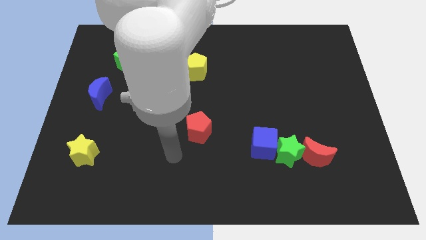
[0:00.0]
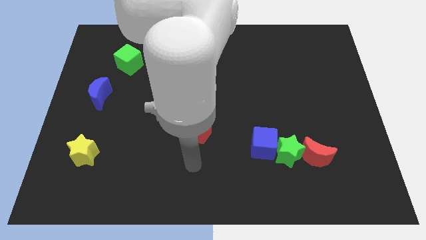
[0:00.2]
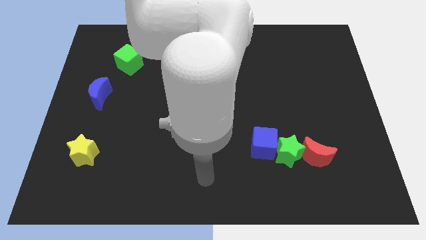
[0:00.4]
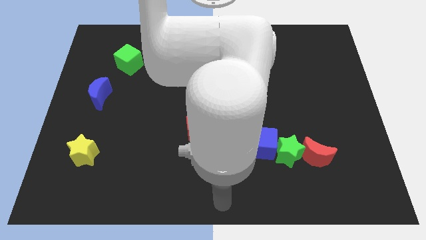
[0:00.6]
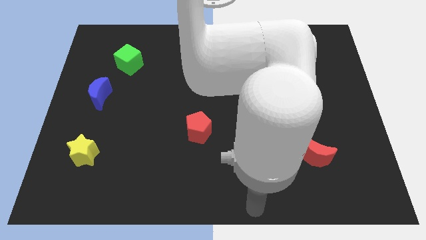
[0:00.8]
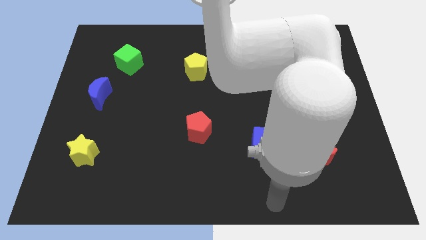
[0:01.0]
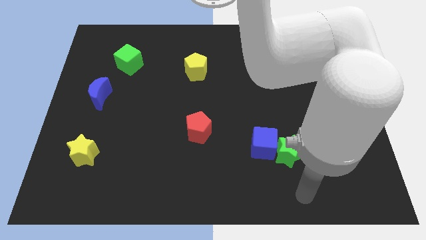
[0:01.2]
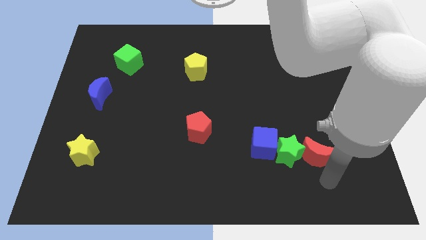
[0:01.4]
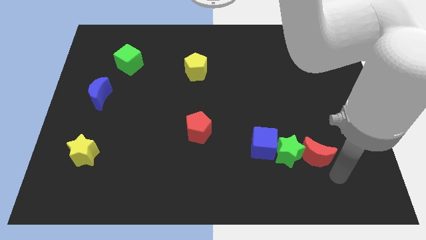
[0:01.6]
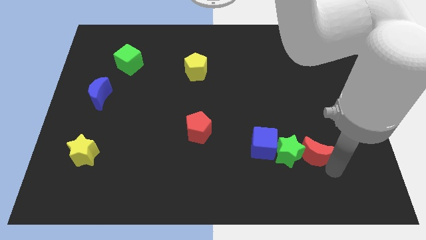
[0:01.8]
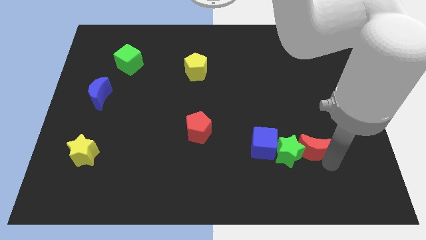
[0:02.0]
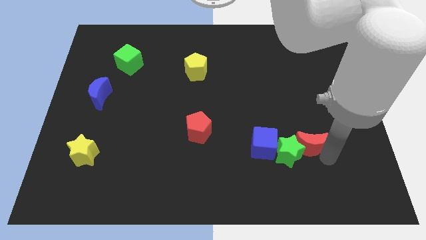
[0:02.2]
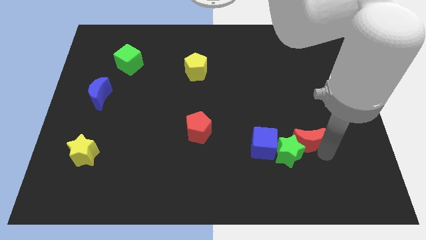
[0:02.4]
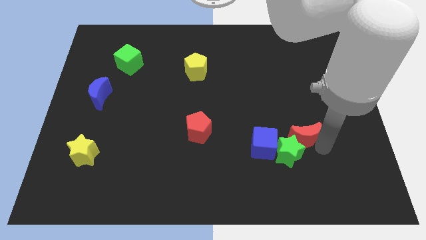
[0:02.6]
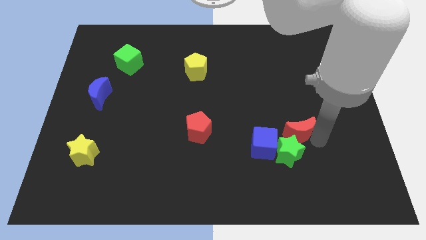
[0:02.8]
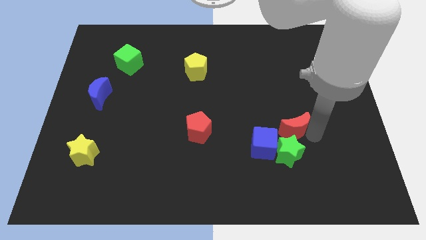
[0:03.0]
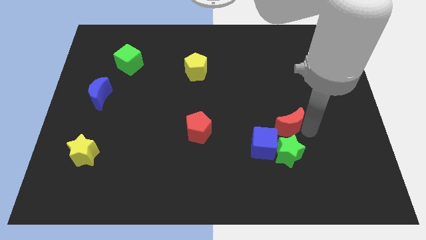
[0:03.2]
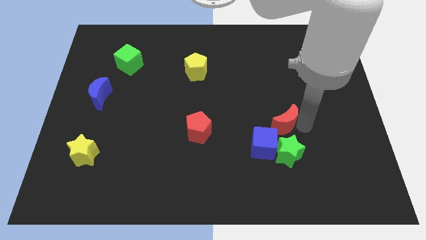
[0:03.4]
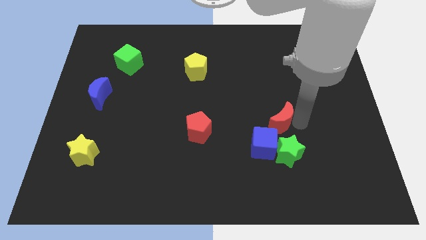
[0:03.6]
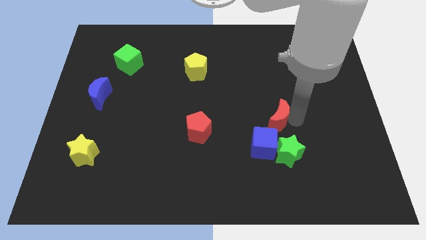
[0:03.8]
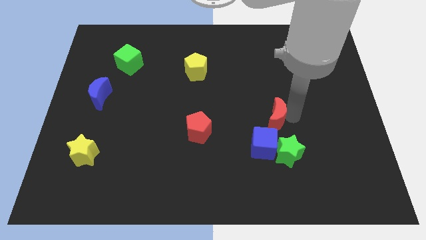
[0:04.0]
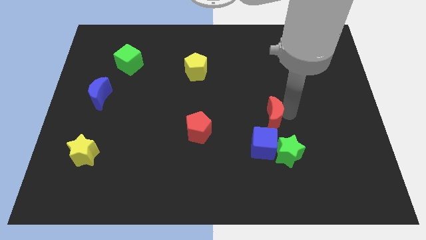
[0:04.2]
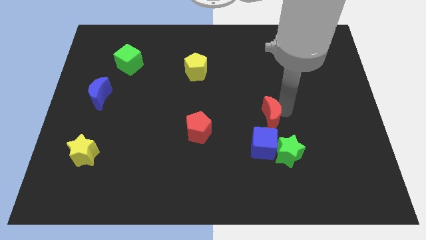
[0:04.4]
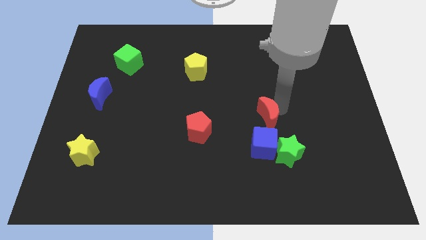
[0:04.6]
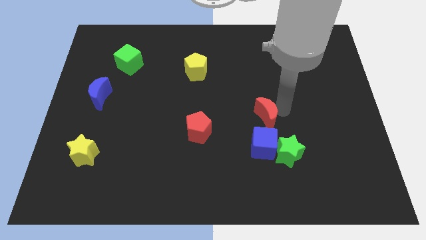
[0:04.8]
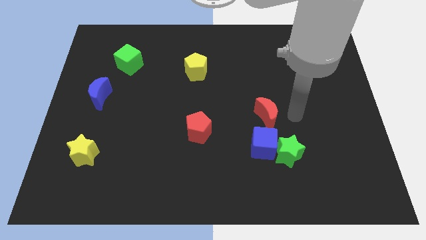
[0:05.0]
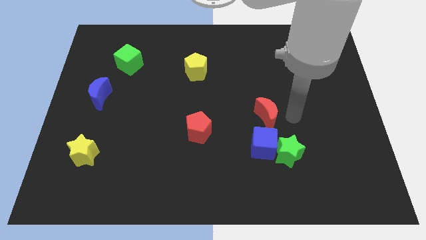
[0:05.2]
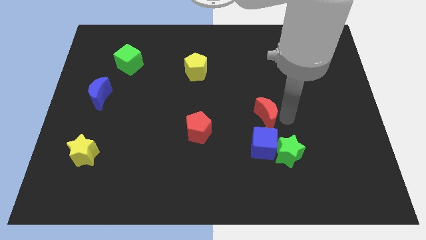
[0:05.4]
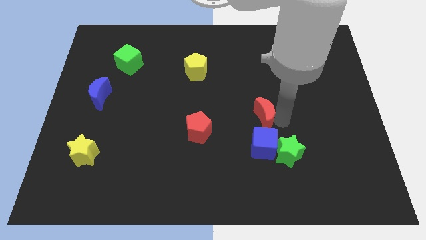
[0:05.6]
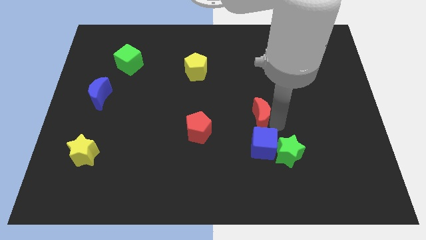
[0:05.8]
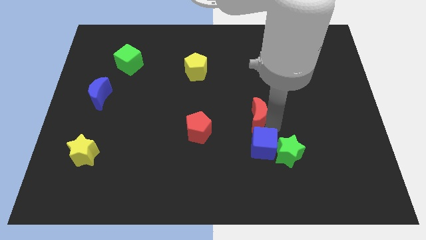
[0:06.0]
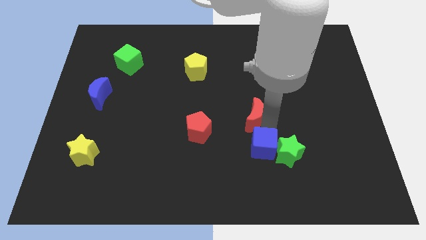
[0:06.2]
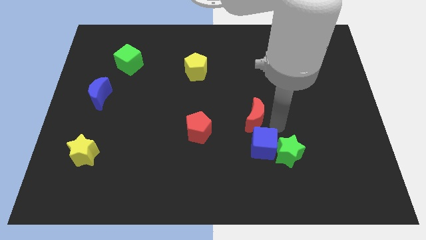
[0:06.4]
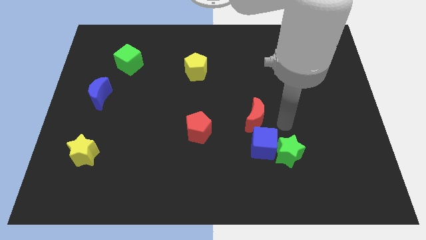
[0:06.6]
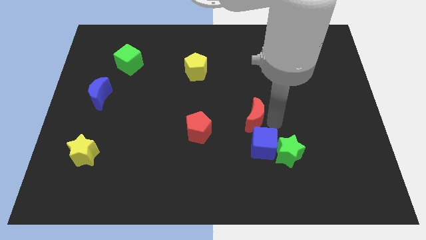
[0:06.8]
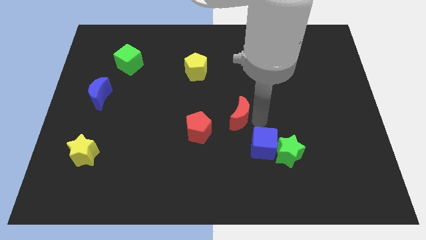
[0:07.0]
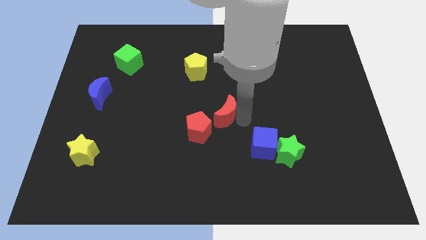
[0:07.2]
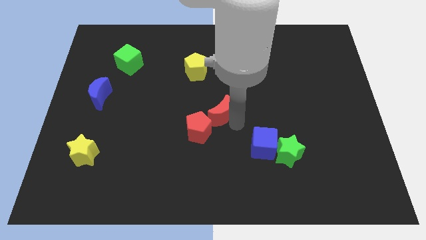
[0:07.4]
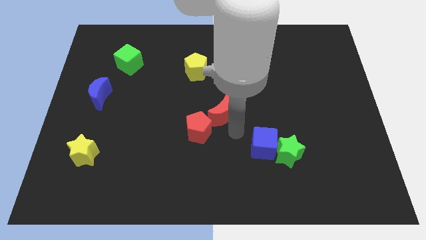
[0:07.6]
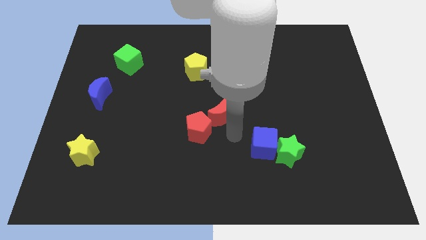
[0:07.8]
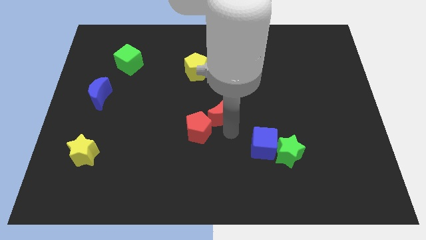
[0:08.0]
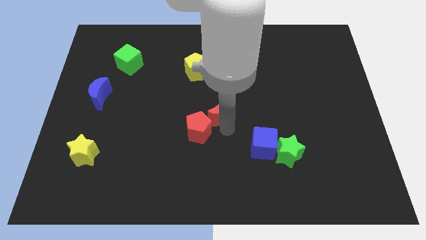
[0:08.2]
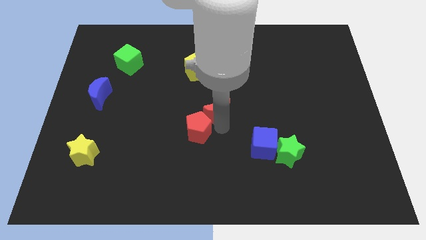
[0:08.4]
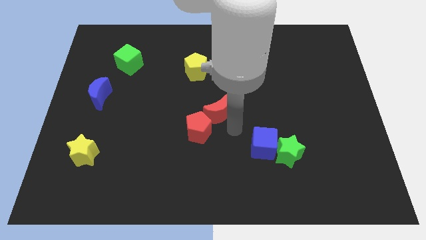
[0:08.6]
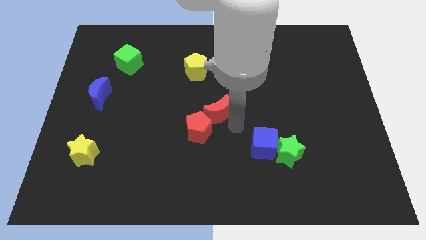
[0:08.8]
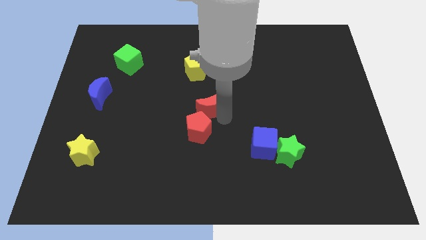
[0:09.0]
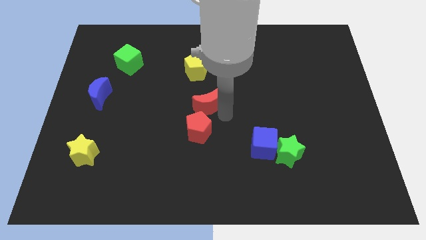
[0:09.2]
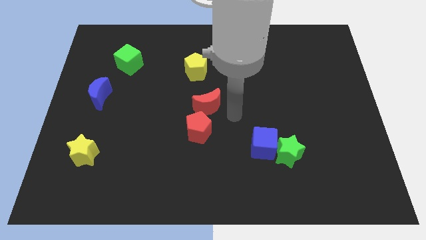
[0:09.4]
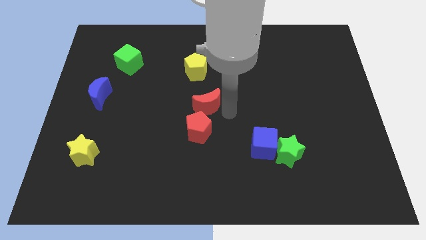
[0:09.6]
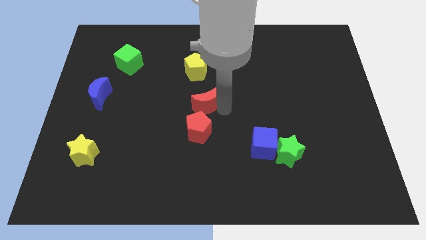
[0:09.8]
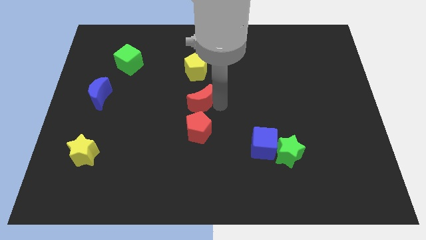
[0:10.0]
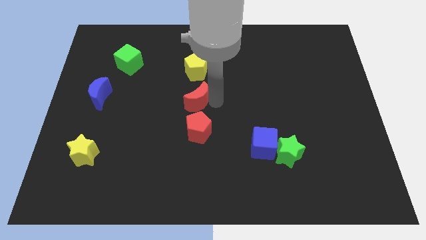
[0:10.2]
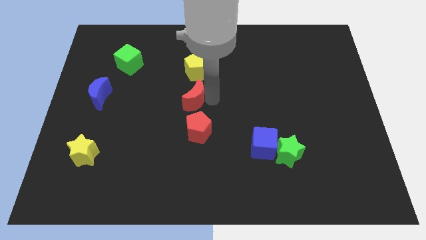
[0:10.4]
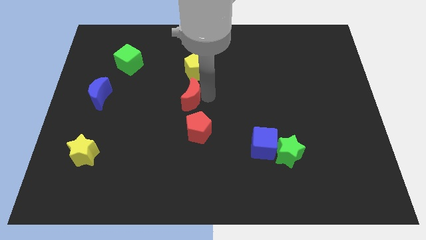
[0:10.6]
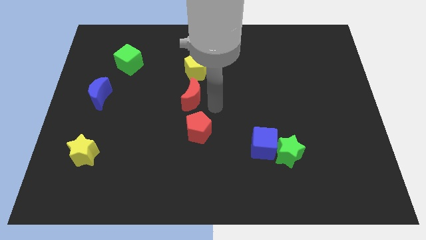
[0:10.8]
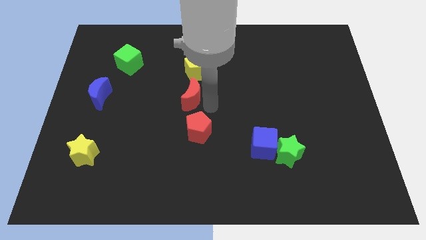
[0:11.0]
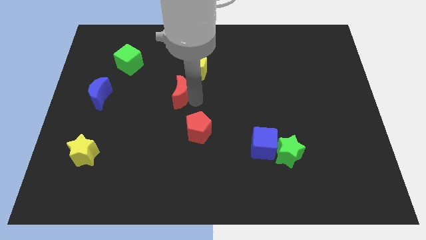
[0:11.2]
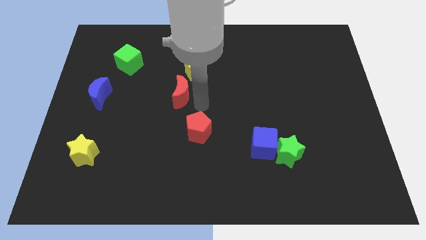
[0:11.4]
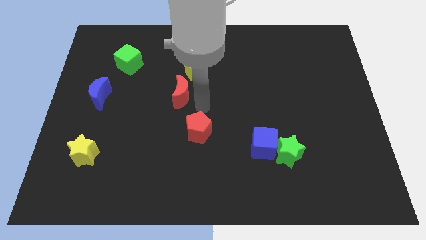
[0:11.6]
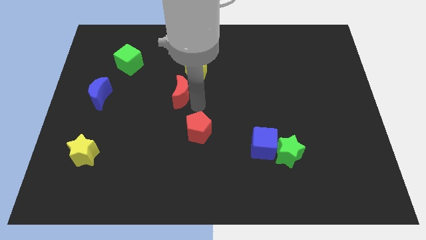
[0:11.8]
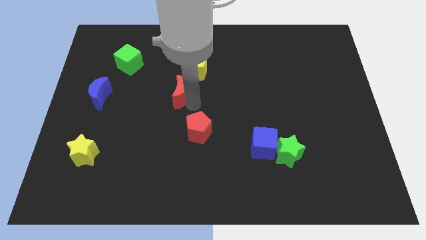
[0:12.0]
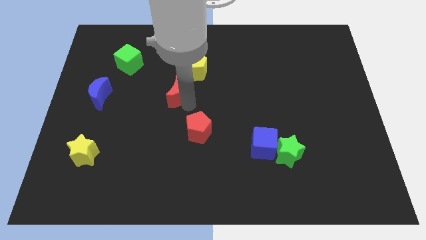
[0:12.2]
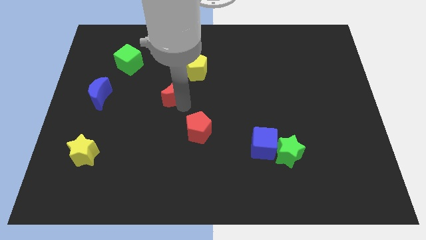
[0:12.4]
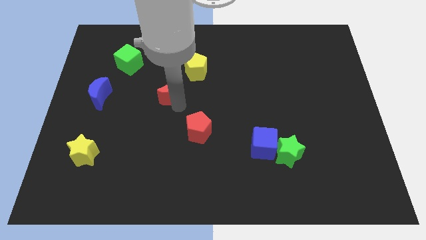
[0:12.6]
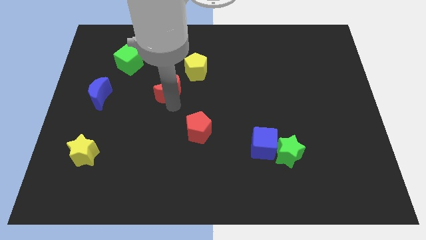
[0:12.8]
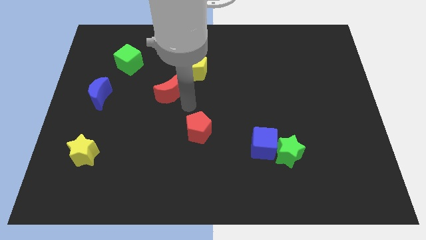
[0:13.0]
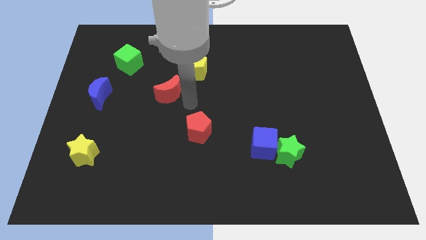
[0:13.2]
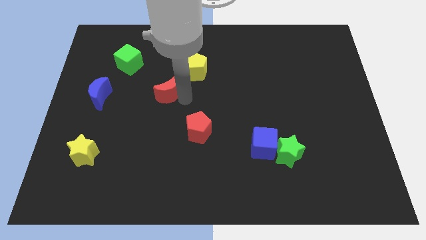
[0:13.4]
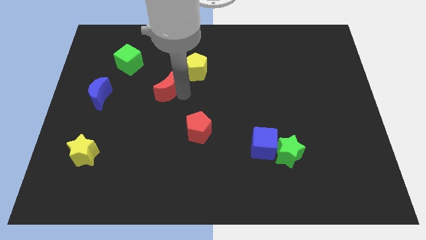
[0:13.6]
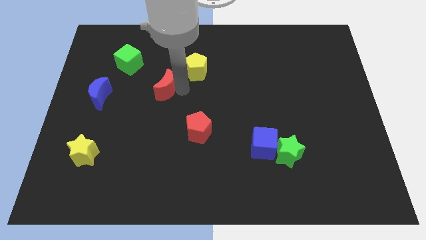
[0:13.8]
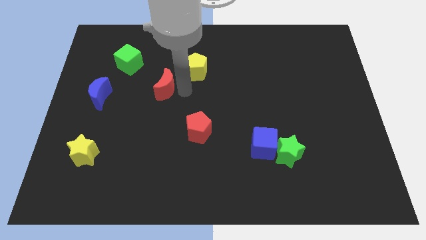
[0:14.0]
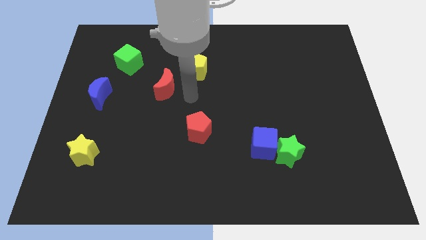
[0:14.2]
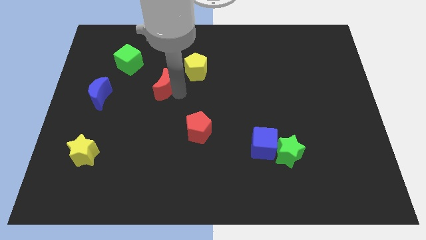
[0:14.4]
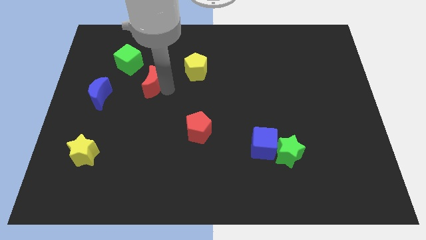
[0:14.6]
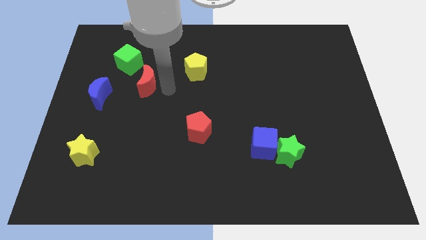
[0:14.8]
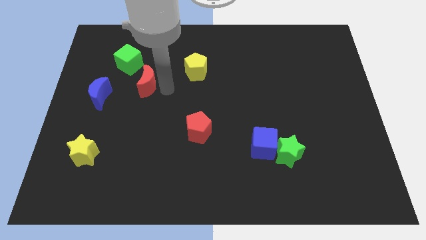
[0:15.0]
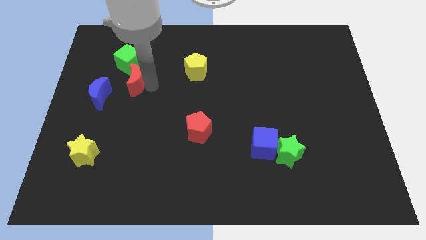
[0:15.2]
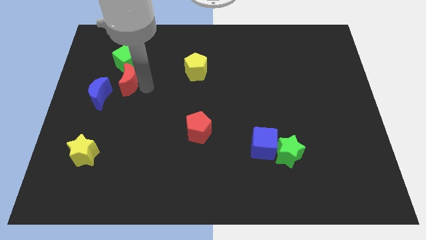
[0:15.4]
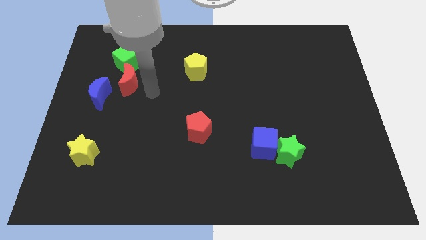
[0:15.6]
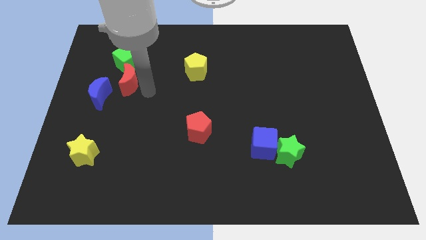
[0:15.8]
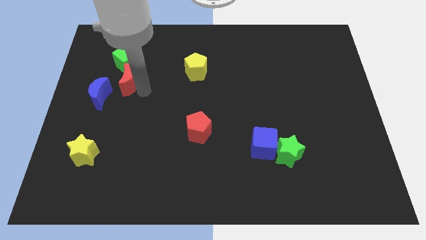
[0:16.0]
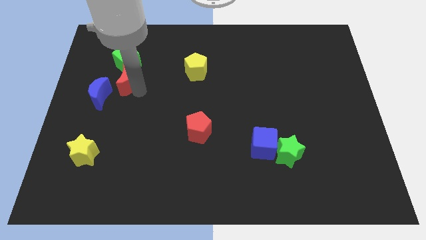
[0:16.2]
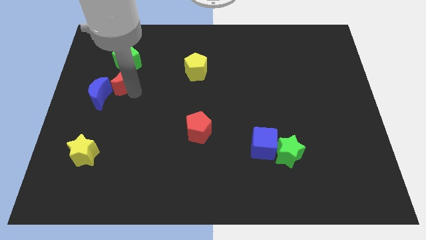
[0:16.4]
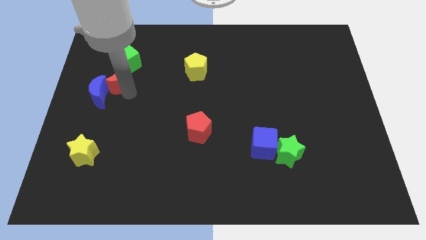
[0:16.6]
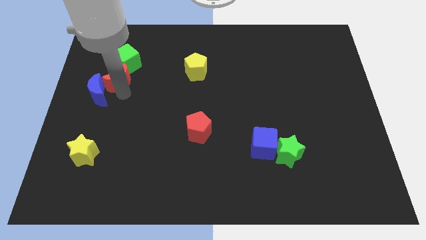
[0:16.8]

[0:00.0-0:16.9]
push the red moon to the top of the blue moon
